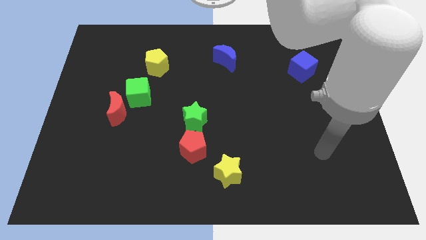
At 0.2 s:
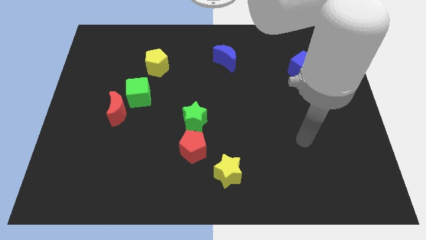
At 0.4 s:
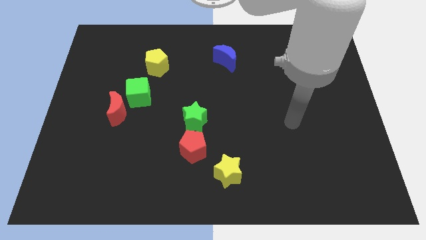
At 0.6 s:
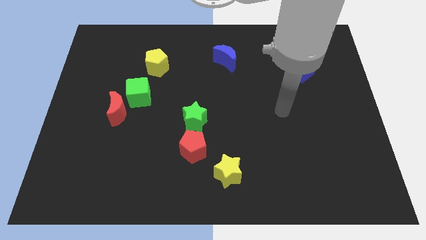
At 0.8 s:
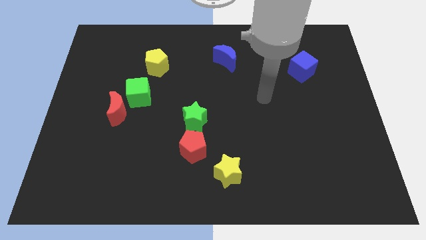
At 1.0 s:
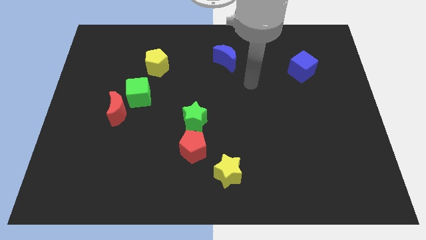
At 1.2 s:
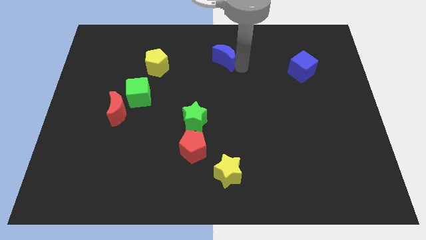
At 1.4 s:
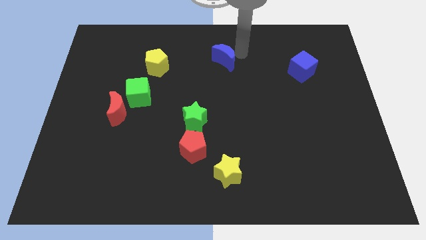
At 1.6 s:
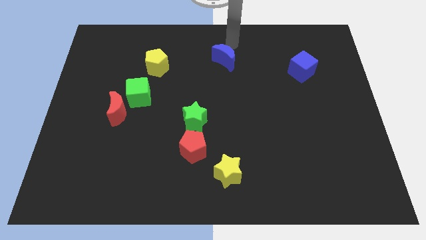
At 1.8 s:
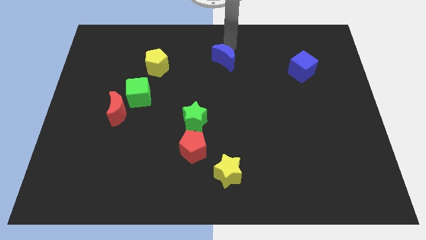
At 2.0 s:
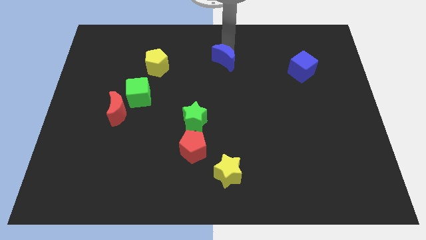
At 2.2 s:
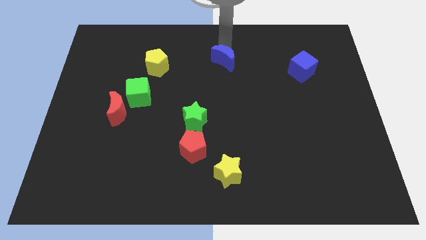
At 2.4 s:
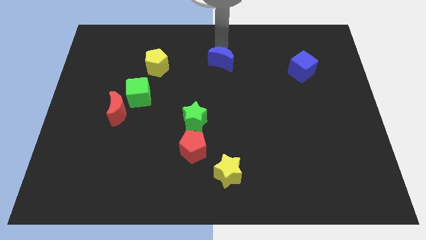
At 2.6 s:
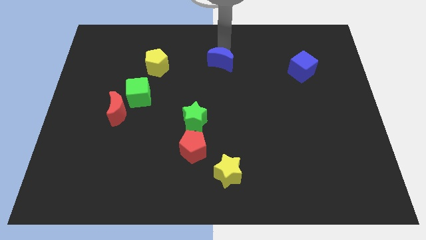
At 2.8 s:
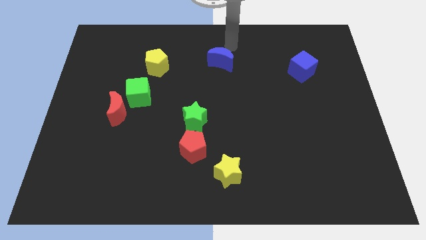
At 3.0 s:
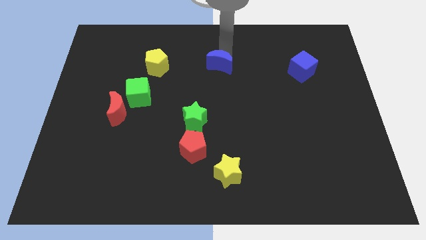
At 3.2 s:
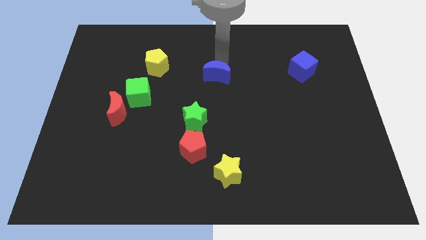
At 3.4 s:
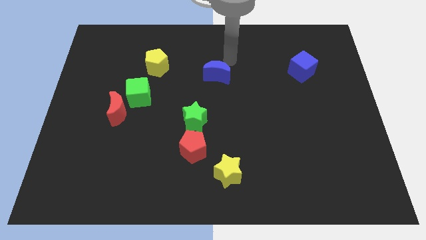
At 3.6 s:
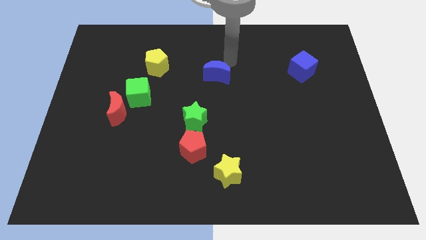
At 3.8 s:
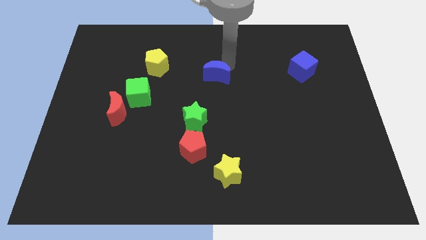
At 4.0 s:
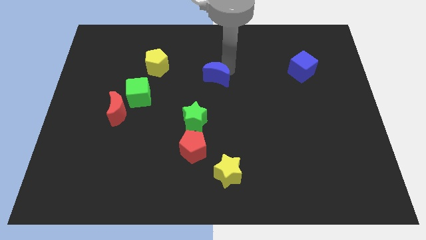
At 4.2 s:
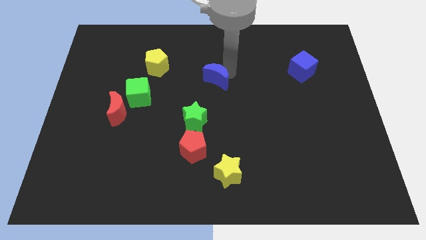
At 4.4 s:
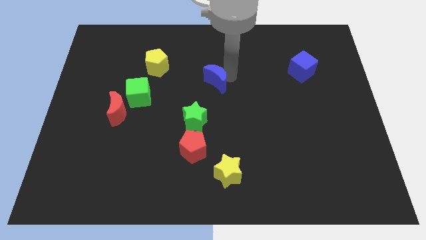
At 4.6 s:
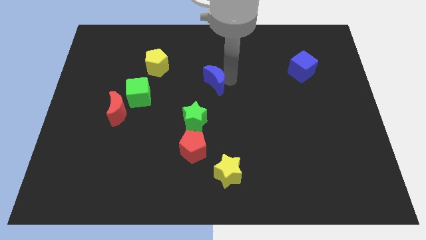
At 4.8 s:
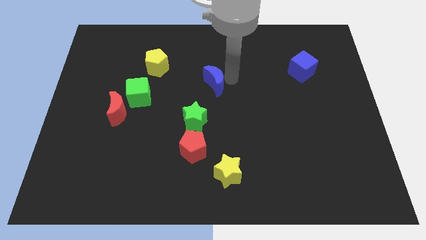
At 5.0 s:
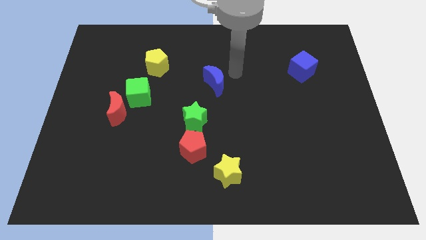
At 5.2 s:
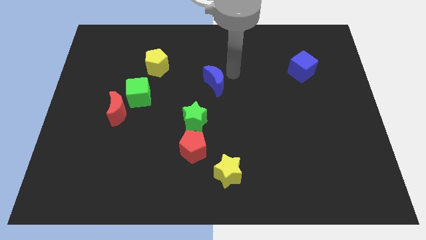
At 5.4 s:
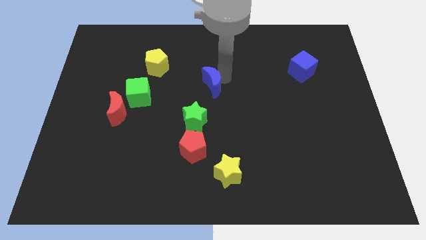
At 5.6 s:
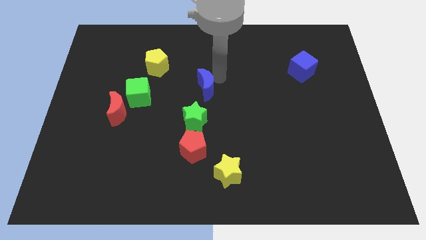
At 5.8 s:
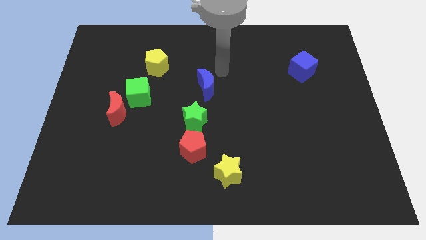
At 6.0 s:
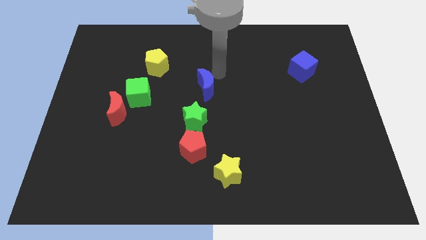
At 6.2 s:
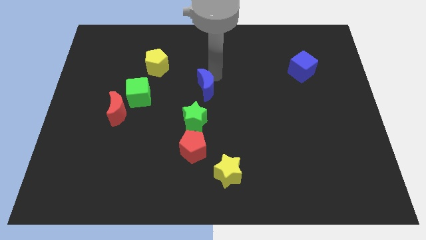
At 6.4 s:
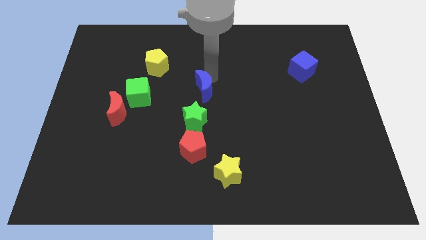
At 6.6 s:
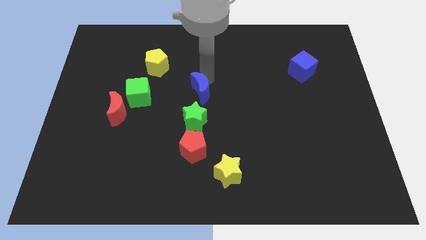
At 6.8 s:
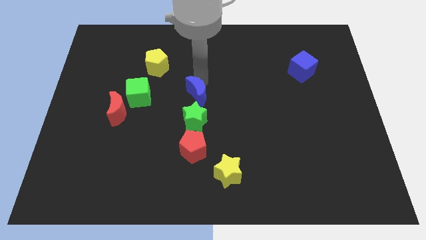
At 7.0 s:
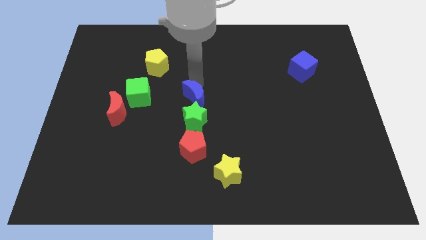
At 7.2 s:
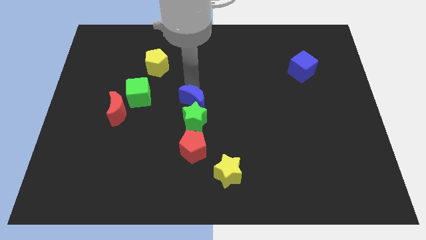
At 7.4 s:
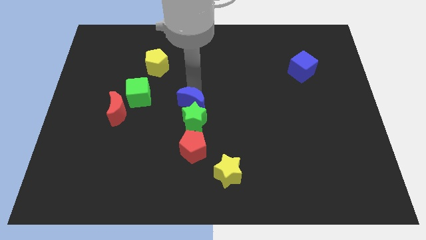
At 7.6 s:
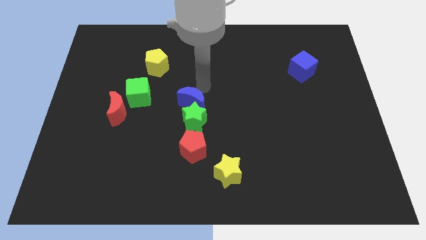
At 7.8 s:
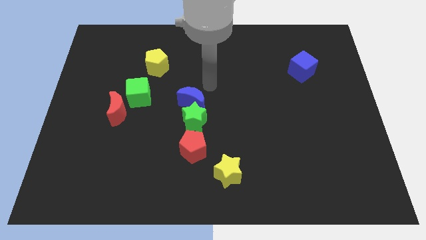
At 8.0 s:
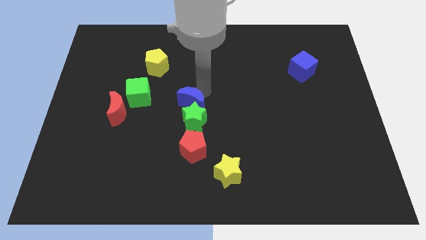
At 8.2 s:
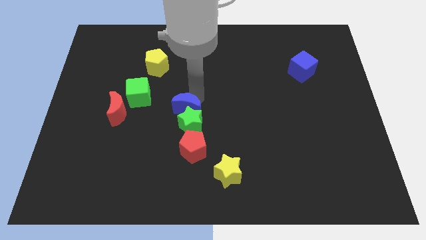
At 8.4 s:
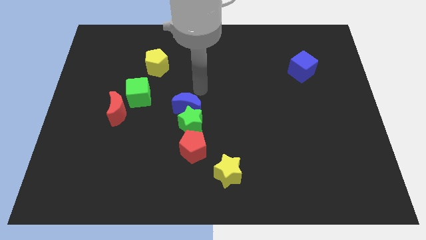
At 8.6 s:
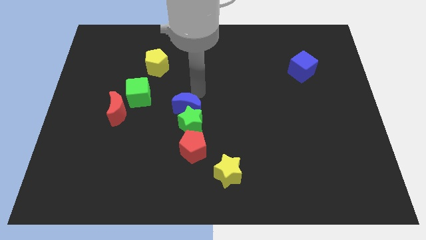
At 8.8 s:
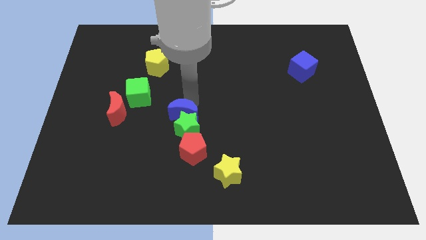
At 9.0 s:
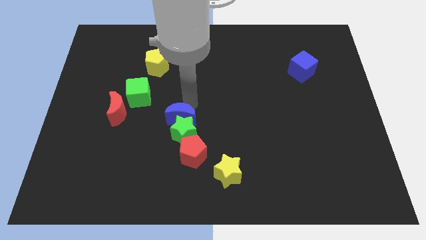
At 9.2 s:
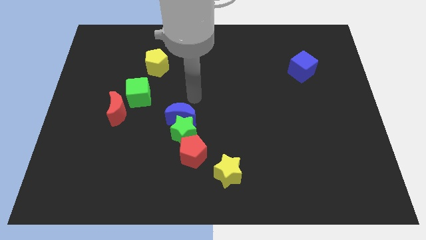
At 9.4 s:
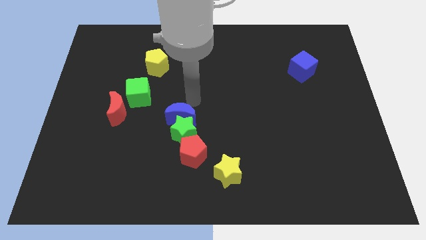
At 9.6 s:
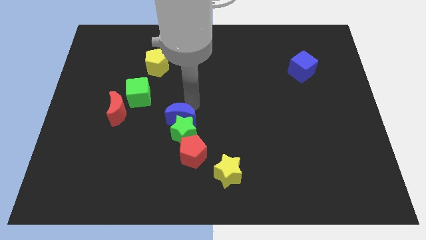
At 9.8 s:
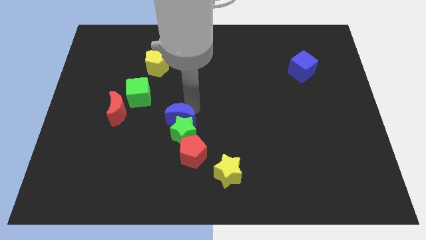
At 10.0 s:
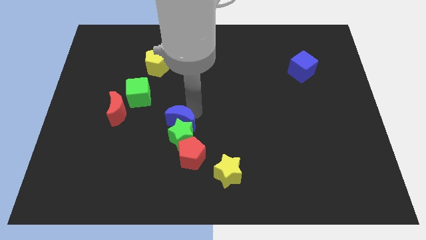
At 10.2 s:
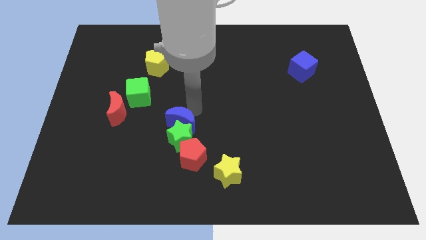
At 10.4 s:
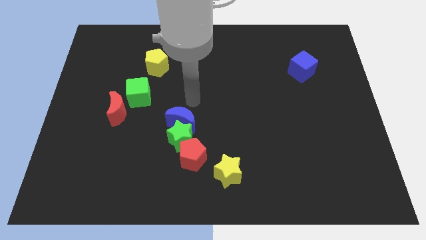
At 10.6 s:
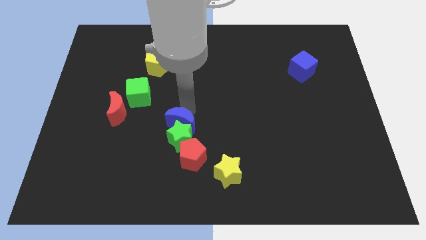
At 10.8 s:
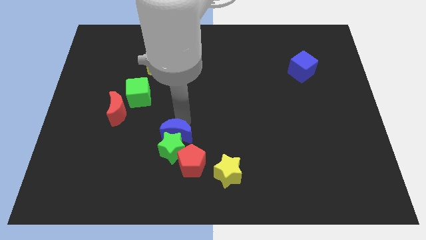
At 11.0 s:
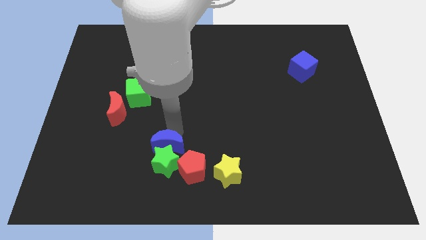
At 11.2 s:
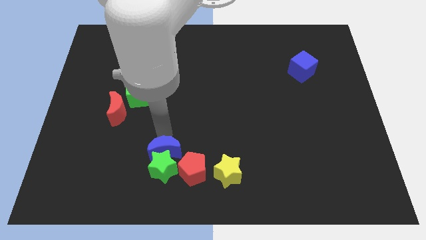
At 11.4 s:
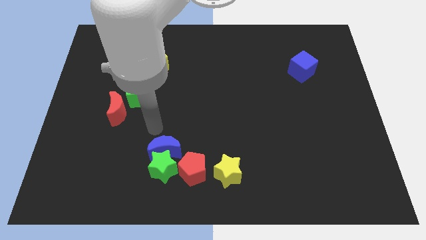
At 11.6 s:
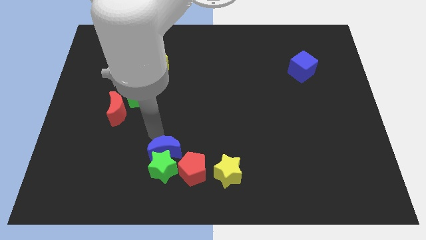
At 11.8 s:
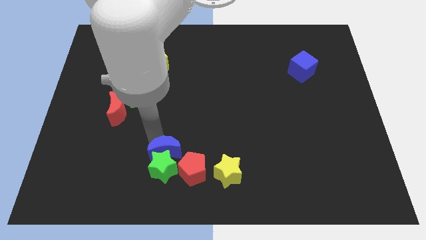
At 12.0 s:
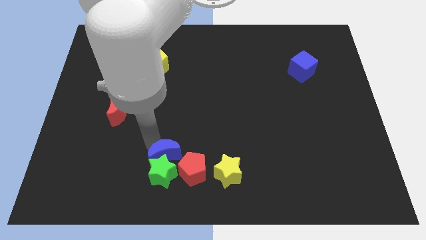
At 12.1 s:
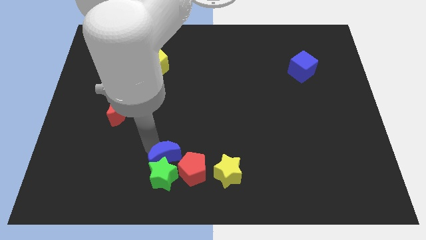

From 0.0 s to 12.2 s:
move the blue moon just left of the yellow star

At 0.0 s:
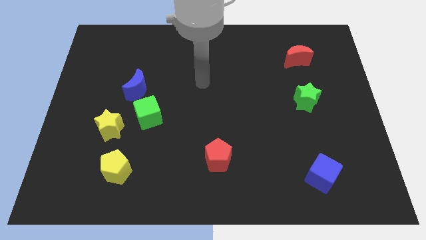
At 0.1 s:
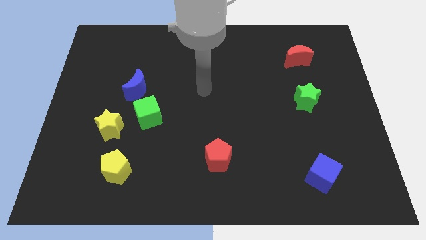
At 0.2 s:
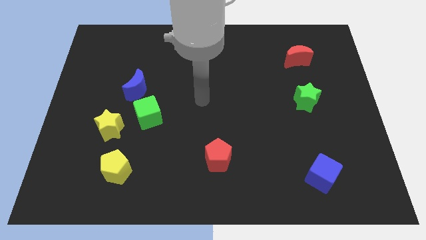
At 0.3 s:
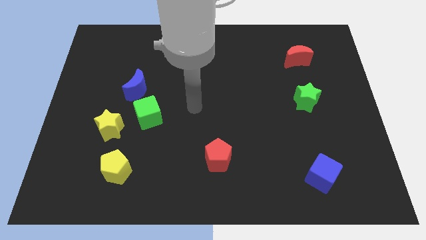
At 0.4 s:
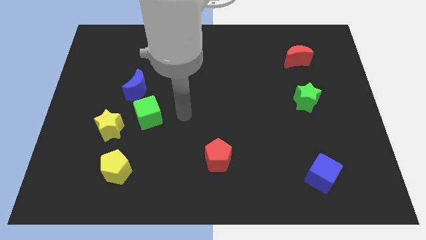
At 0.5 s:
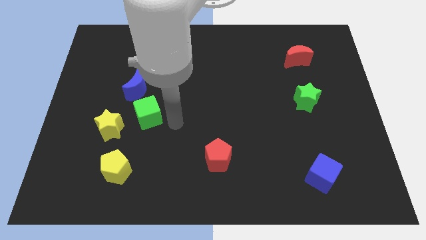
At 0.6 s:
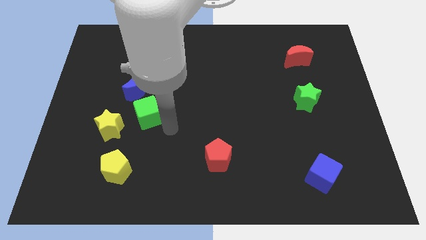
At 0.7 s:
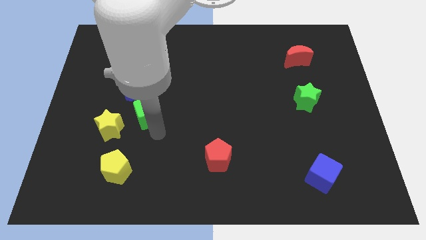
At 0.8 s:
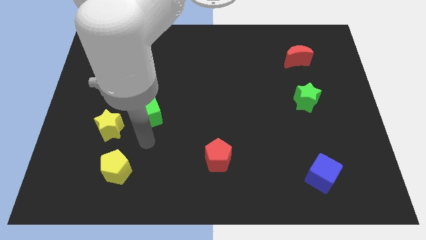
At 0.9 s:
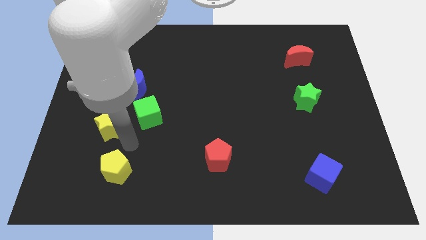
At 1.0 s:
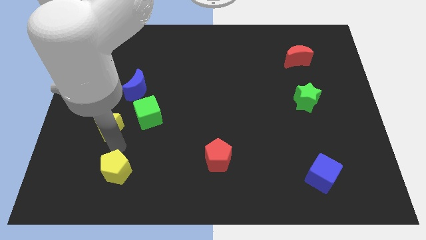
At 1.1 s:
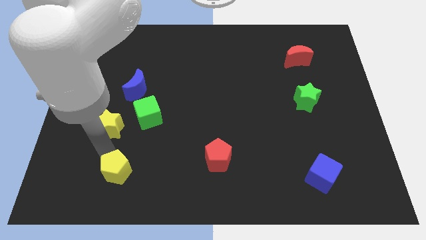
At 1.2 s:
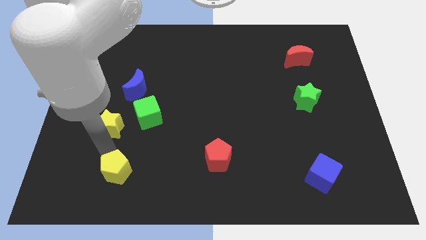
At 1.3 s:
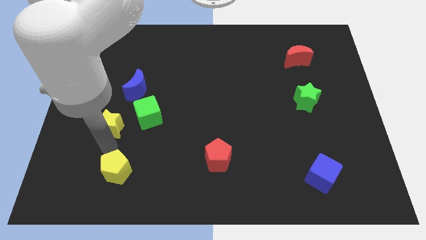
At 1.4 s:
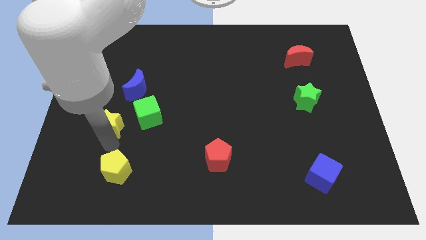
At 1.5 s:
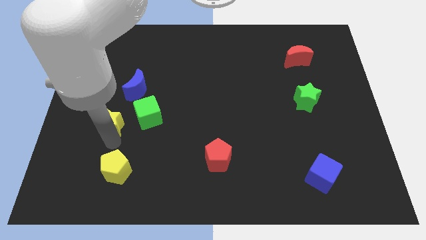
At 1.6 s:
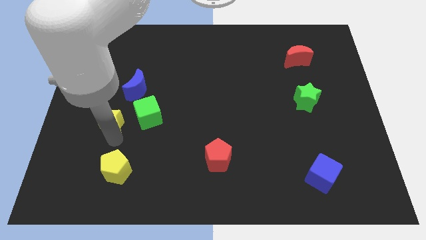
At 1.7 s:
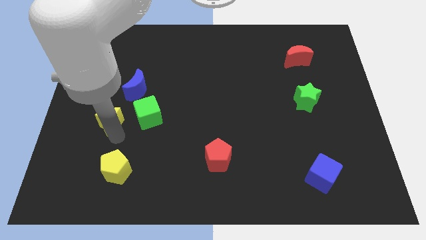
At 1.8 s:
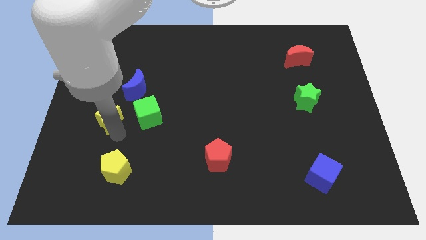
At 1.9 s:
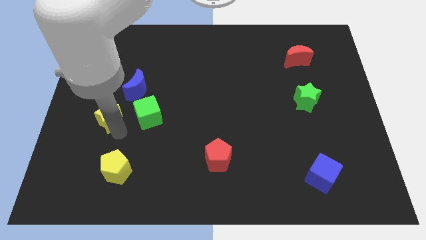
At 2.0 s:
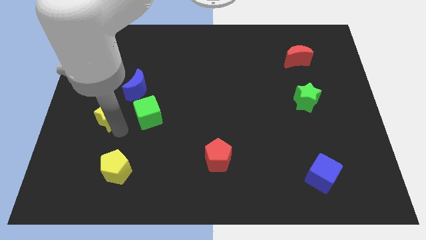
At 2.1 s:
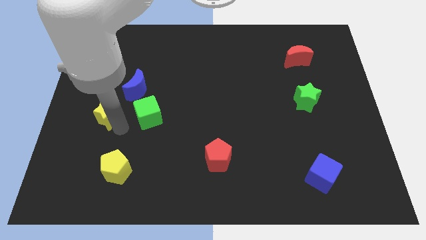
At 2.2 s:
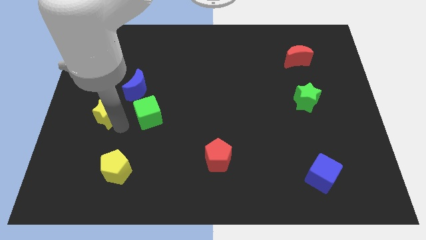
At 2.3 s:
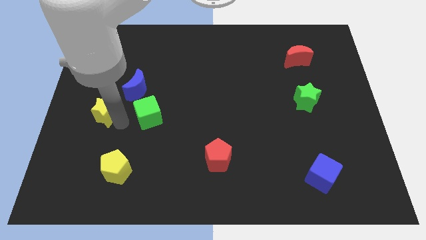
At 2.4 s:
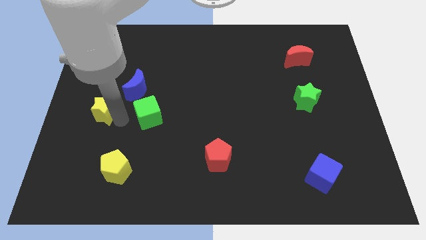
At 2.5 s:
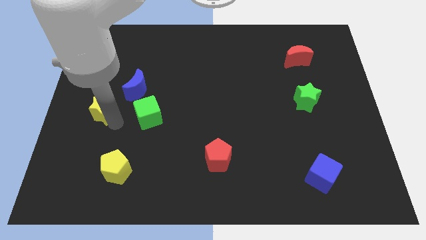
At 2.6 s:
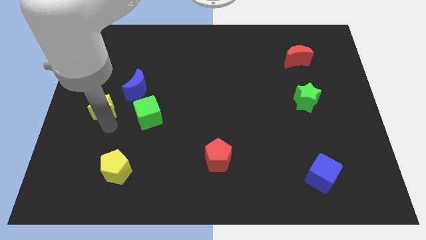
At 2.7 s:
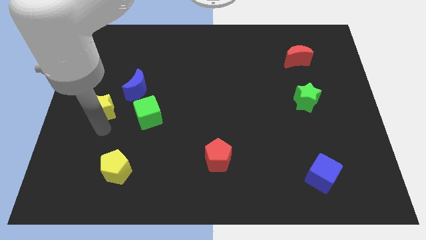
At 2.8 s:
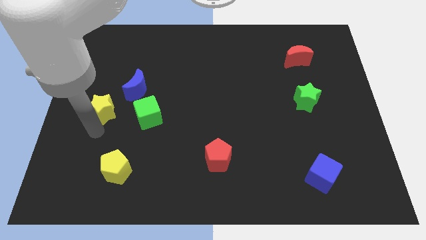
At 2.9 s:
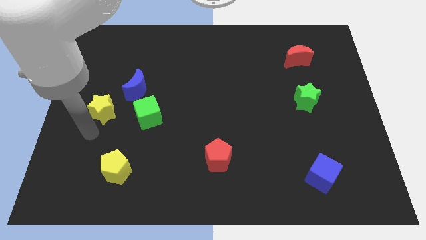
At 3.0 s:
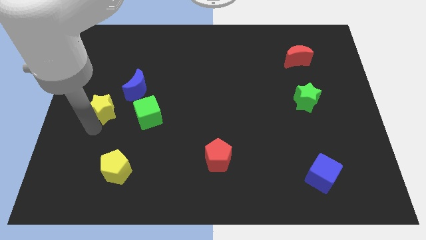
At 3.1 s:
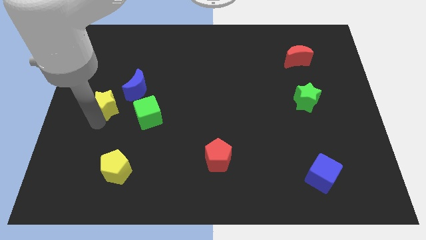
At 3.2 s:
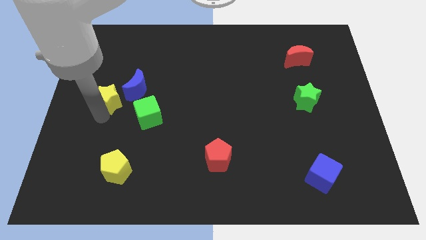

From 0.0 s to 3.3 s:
put the yellow star to the top left side of the green cube
